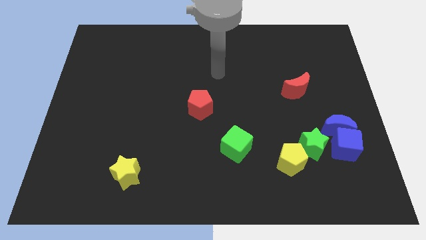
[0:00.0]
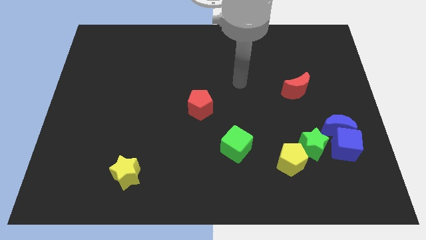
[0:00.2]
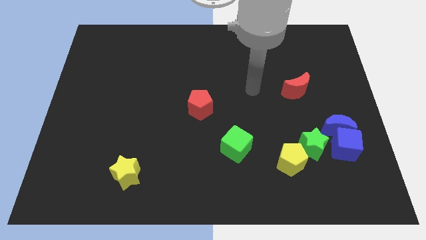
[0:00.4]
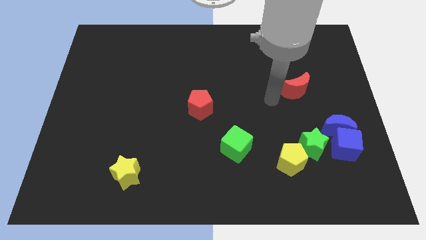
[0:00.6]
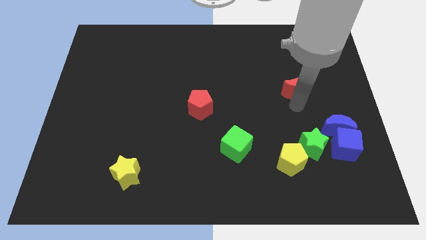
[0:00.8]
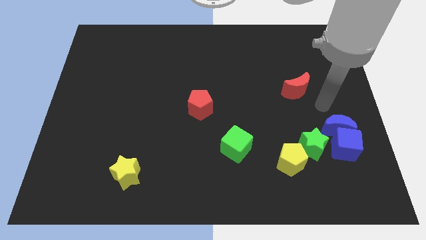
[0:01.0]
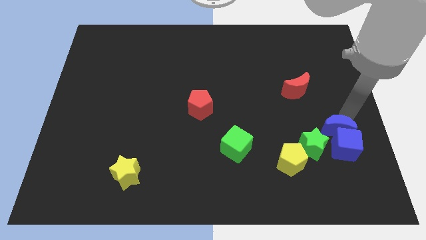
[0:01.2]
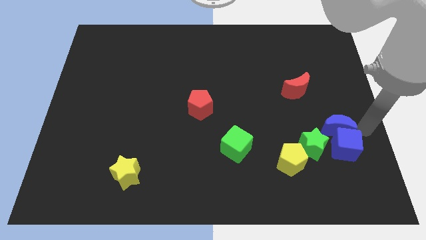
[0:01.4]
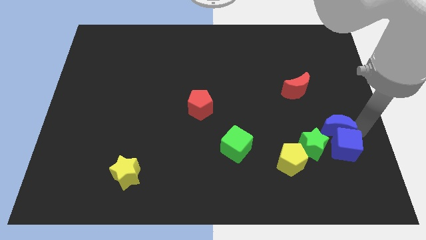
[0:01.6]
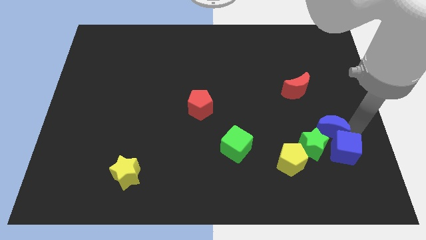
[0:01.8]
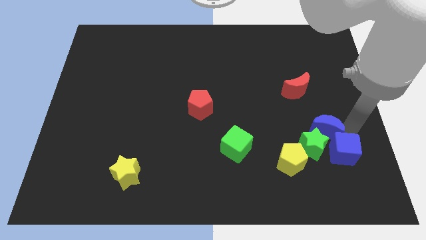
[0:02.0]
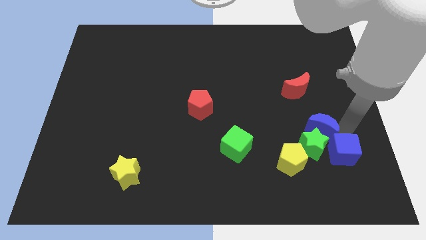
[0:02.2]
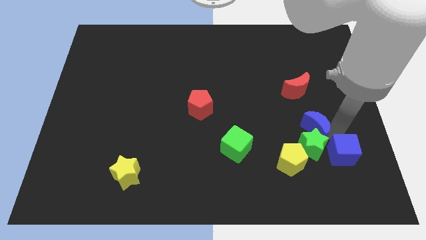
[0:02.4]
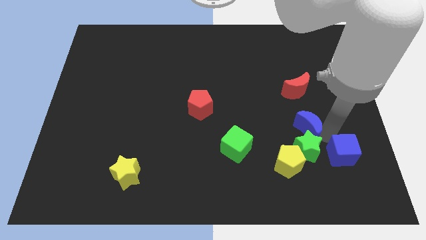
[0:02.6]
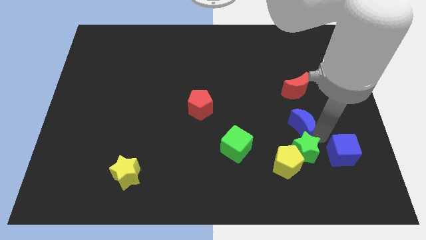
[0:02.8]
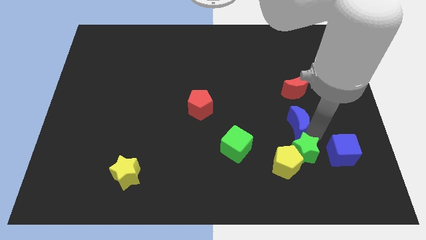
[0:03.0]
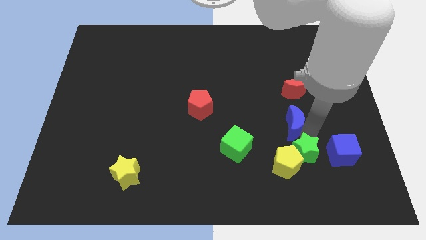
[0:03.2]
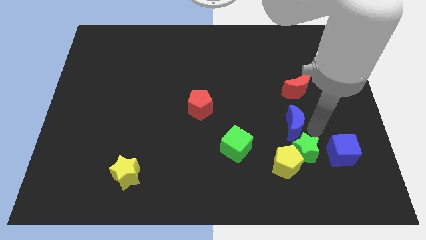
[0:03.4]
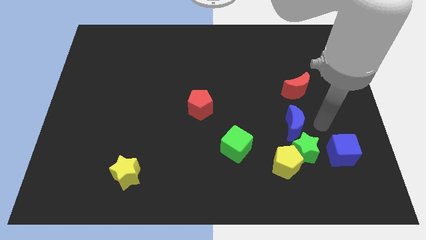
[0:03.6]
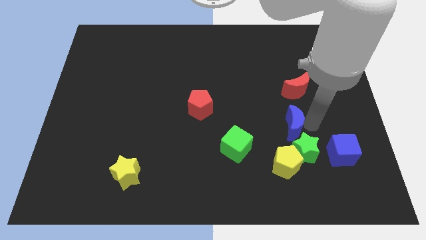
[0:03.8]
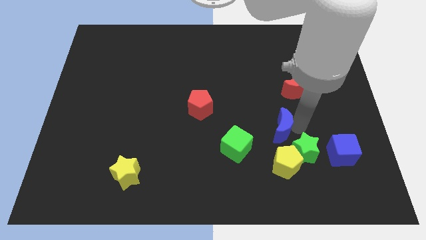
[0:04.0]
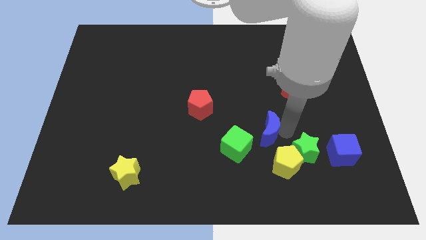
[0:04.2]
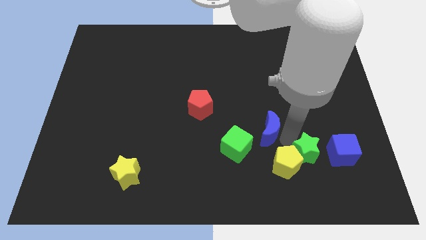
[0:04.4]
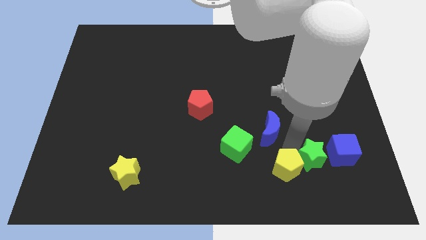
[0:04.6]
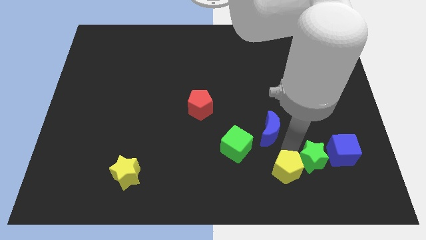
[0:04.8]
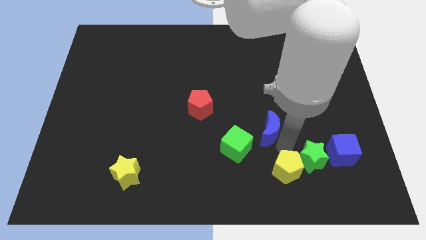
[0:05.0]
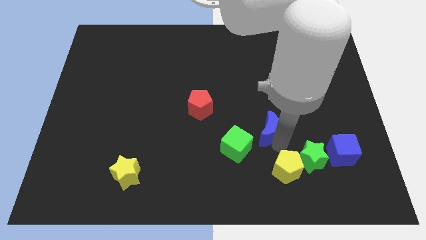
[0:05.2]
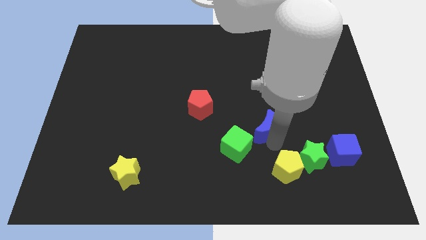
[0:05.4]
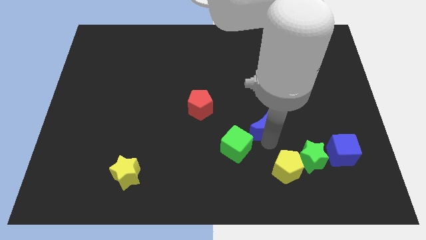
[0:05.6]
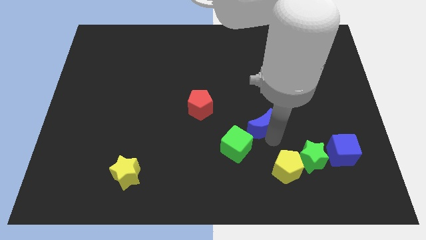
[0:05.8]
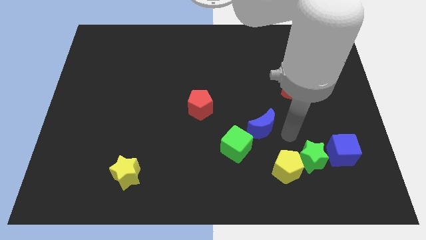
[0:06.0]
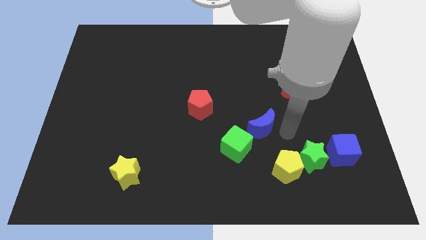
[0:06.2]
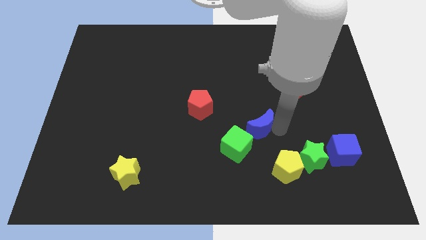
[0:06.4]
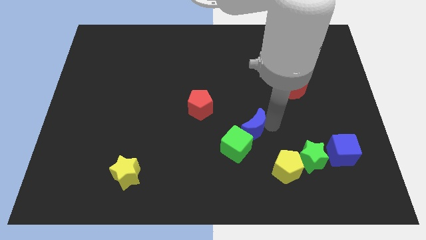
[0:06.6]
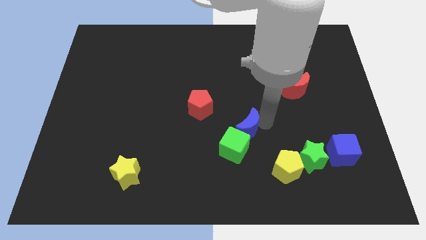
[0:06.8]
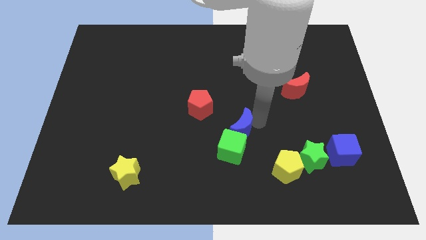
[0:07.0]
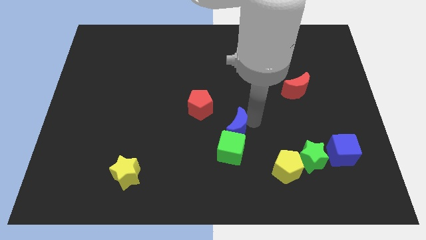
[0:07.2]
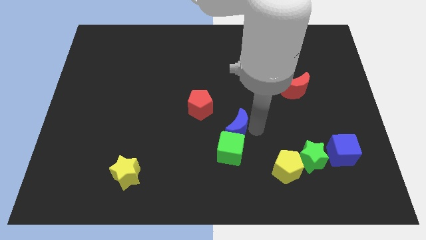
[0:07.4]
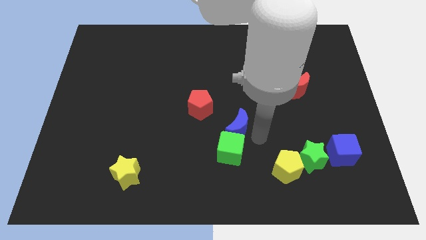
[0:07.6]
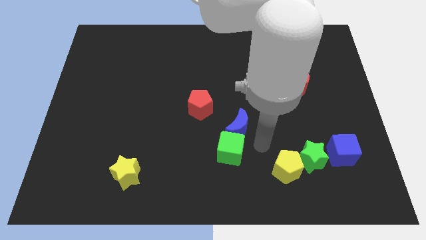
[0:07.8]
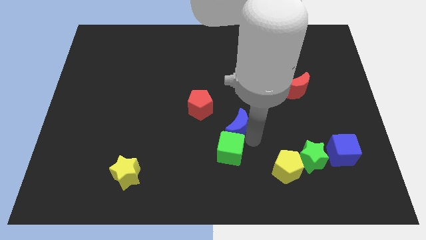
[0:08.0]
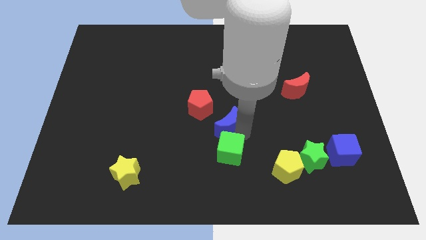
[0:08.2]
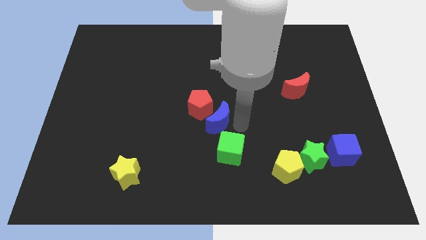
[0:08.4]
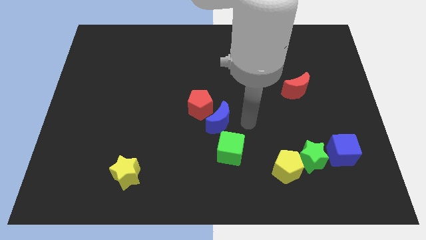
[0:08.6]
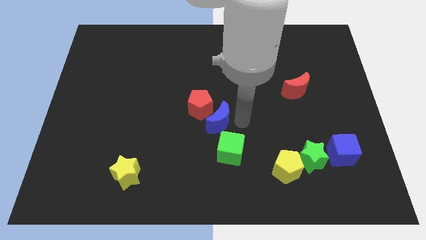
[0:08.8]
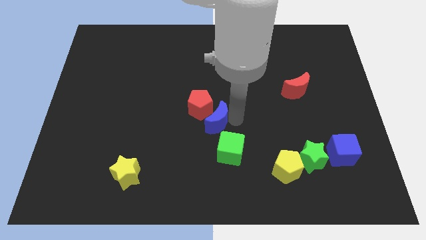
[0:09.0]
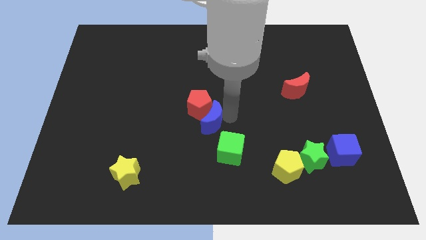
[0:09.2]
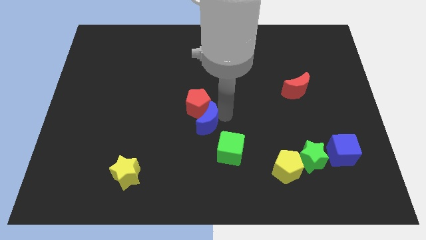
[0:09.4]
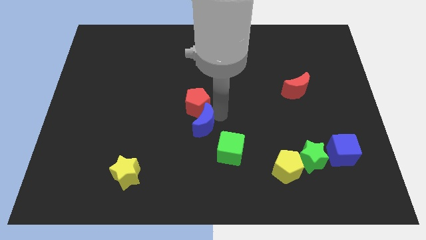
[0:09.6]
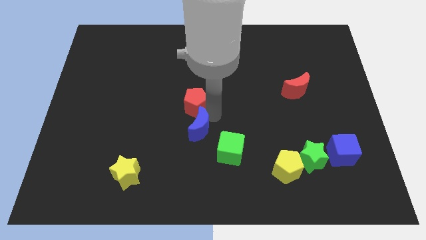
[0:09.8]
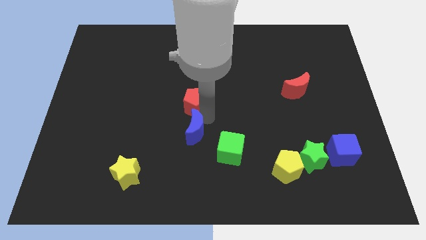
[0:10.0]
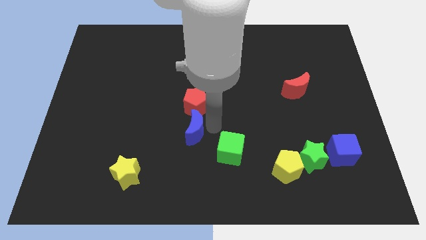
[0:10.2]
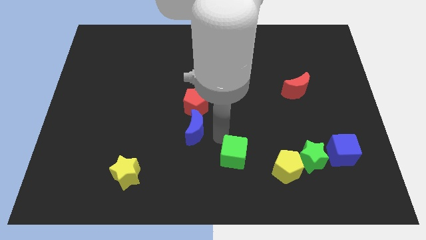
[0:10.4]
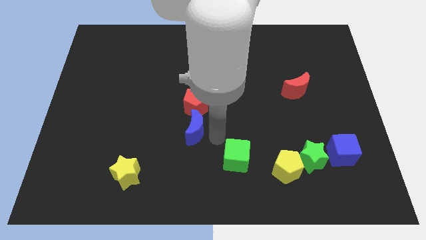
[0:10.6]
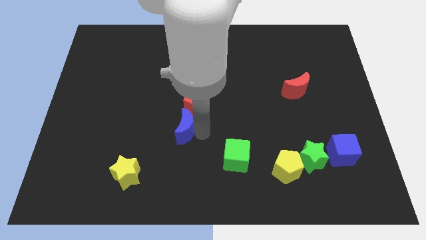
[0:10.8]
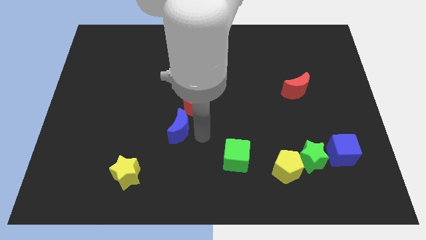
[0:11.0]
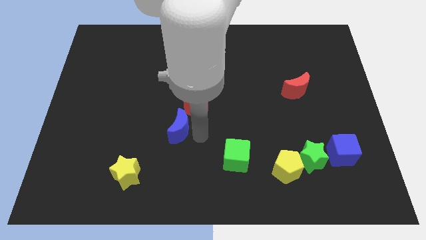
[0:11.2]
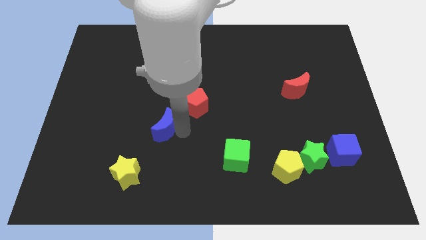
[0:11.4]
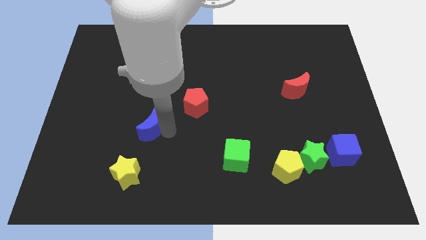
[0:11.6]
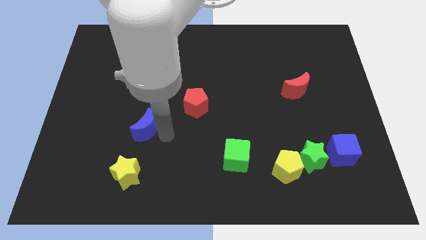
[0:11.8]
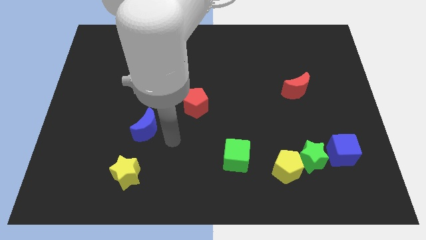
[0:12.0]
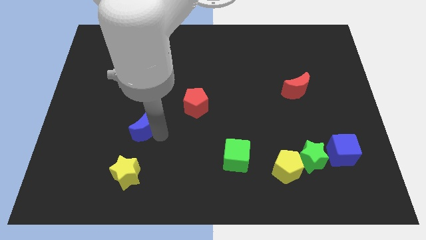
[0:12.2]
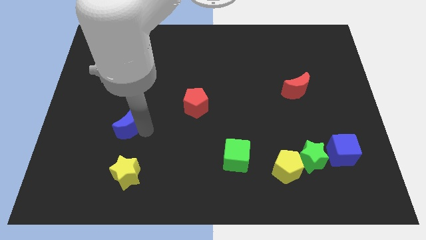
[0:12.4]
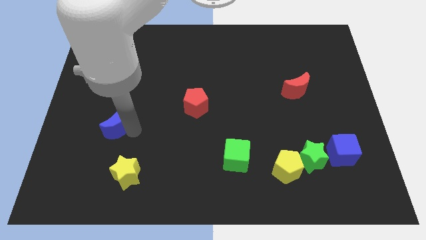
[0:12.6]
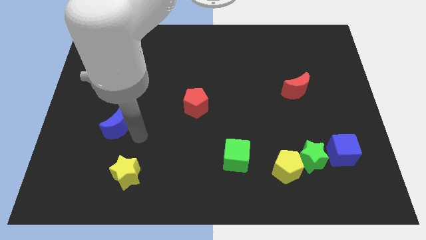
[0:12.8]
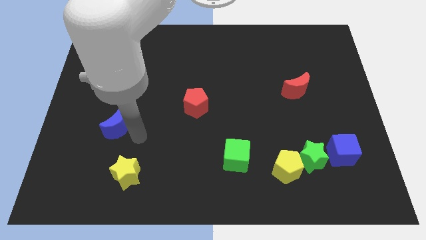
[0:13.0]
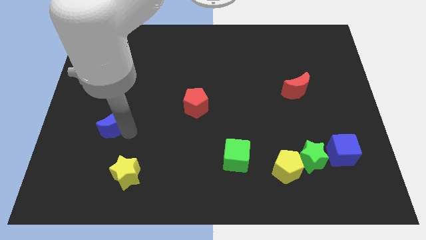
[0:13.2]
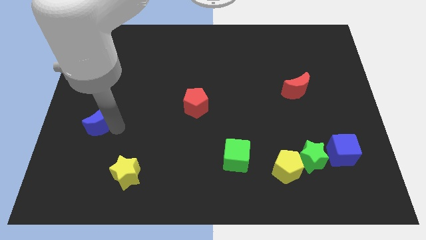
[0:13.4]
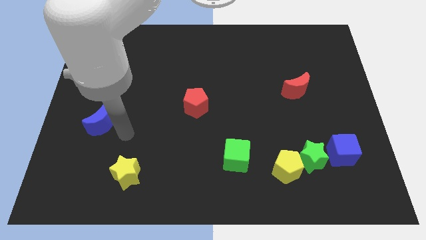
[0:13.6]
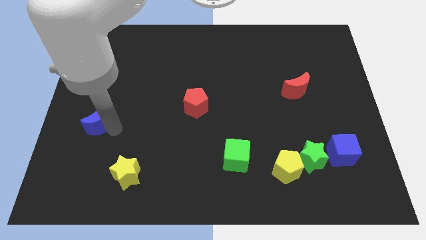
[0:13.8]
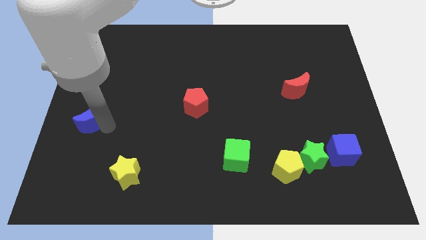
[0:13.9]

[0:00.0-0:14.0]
move the blue moon to the left side
